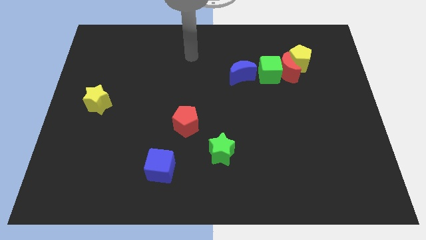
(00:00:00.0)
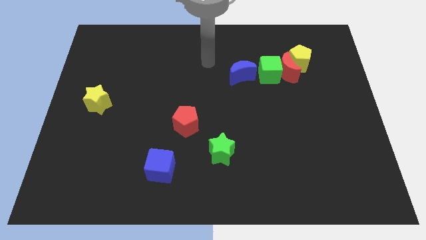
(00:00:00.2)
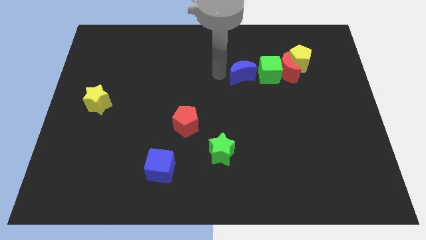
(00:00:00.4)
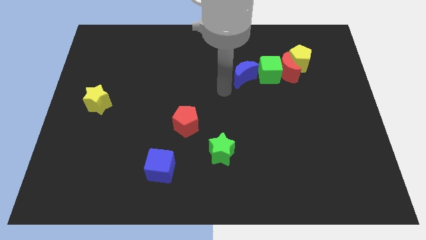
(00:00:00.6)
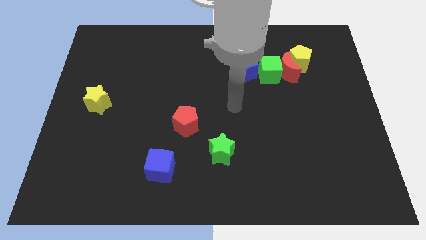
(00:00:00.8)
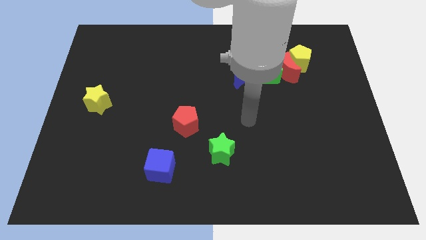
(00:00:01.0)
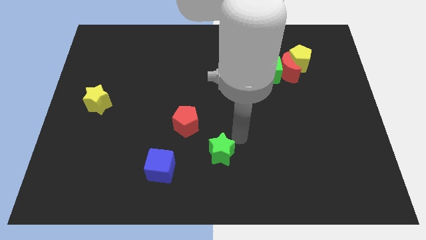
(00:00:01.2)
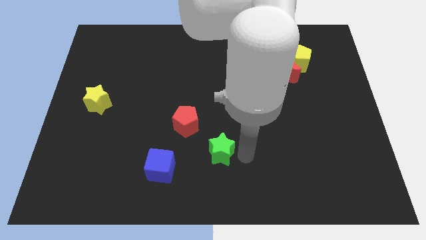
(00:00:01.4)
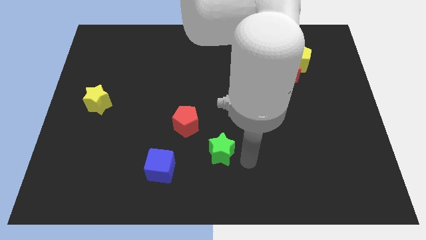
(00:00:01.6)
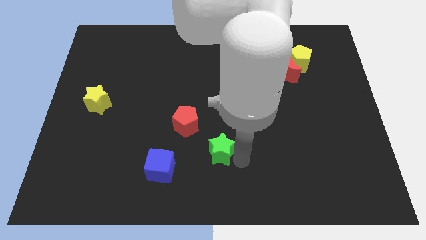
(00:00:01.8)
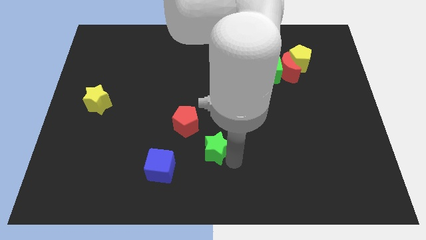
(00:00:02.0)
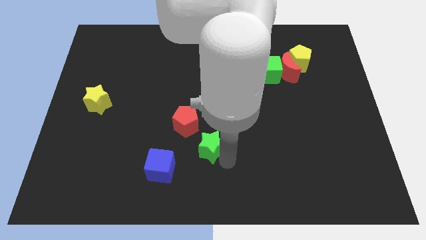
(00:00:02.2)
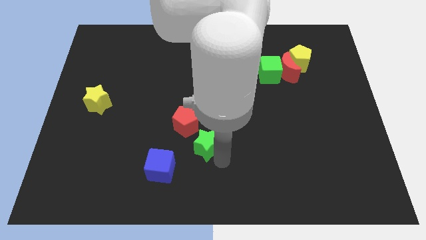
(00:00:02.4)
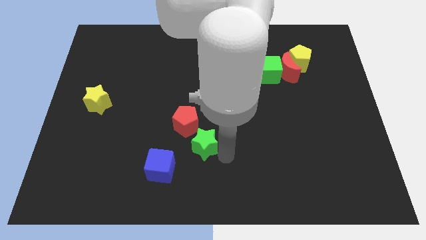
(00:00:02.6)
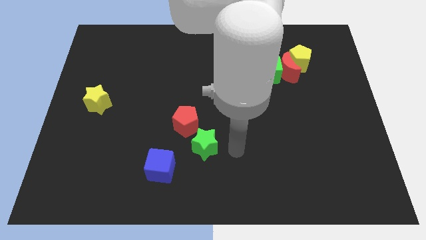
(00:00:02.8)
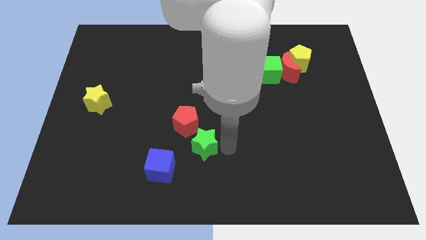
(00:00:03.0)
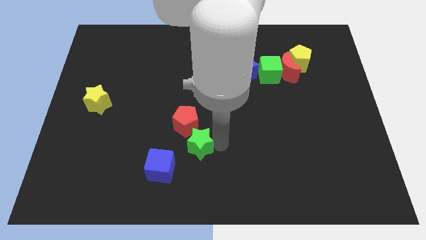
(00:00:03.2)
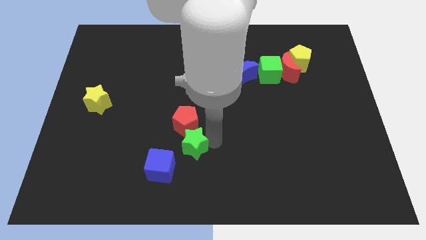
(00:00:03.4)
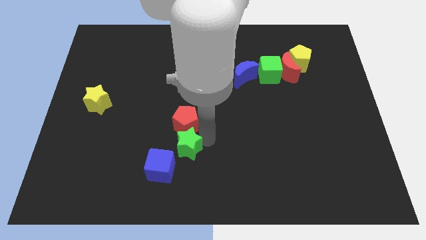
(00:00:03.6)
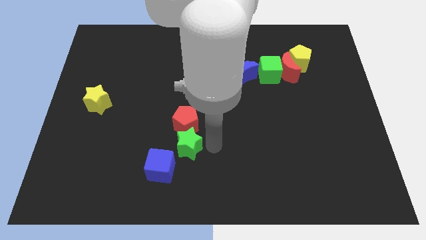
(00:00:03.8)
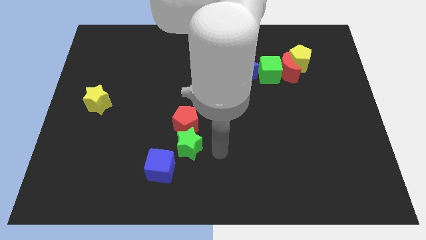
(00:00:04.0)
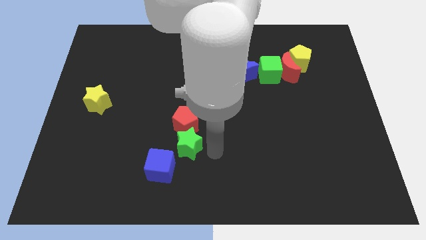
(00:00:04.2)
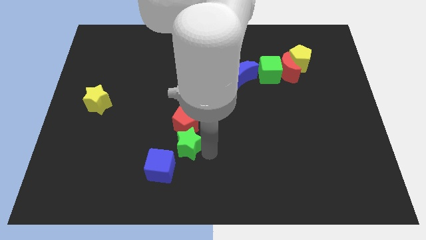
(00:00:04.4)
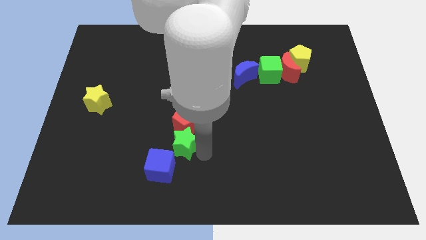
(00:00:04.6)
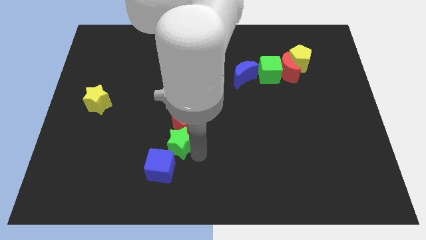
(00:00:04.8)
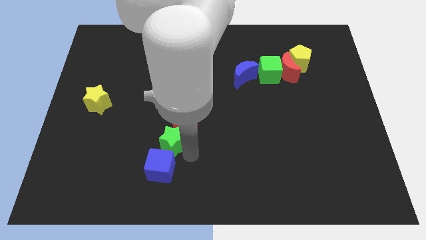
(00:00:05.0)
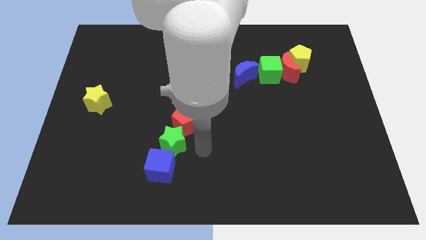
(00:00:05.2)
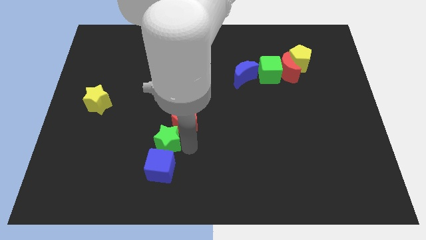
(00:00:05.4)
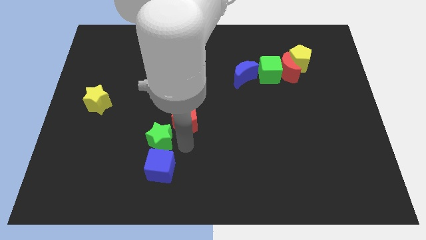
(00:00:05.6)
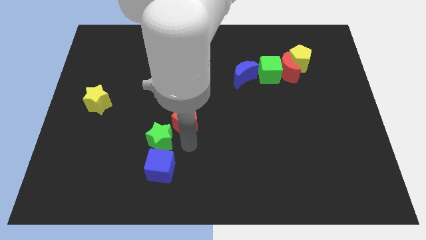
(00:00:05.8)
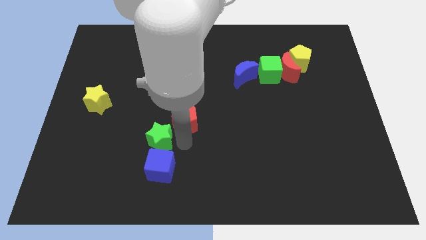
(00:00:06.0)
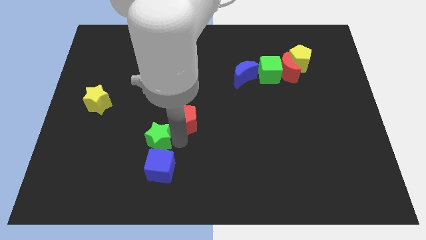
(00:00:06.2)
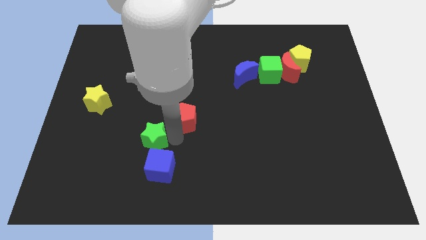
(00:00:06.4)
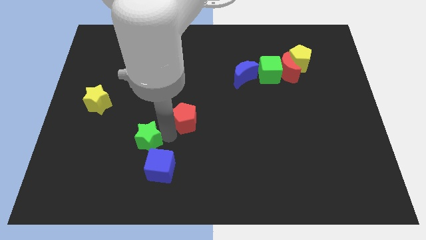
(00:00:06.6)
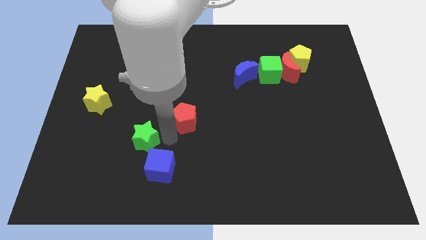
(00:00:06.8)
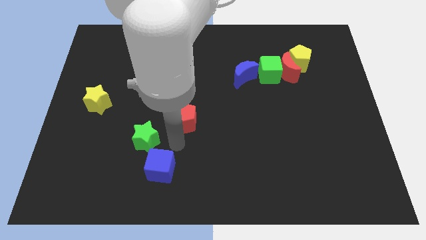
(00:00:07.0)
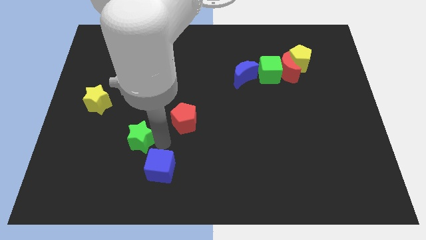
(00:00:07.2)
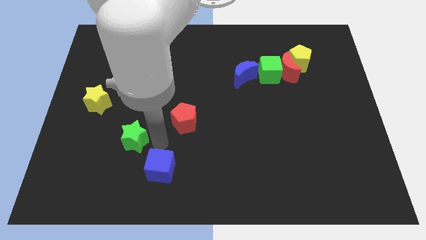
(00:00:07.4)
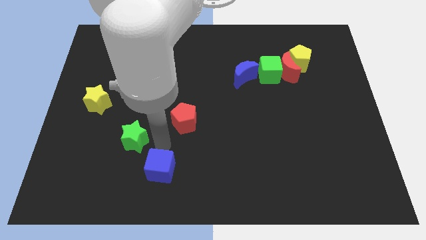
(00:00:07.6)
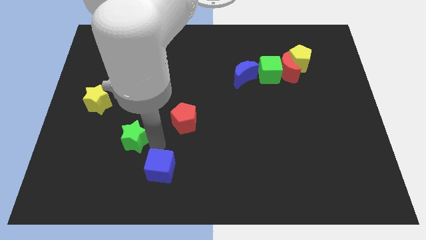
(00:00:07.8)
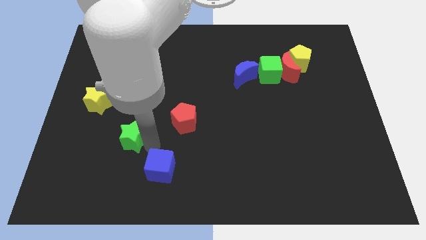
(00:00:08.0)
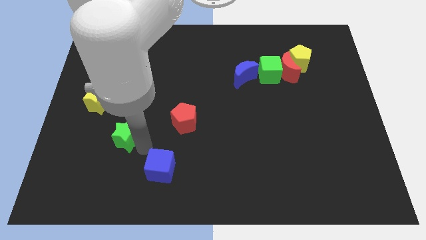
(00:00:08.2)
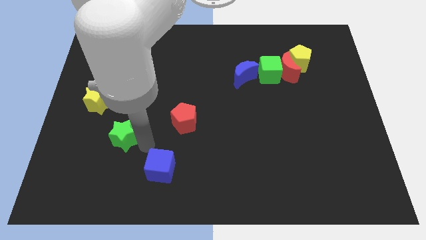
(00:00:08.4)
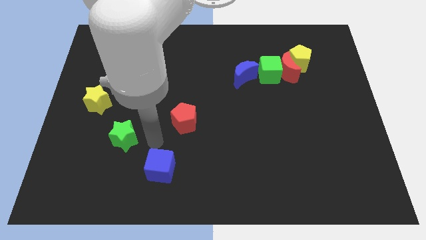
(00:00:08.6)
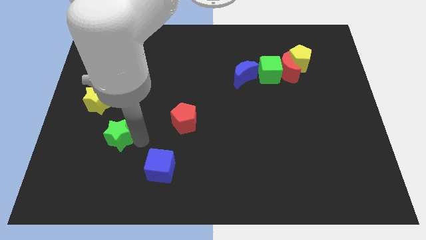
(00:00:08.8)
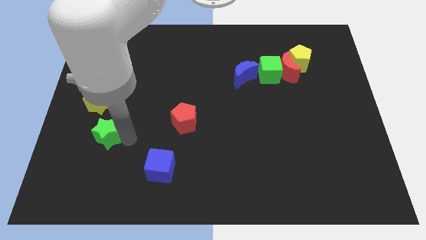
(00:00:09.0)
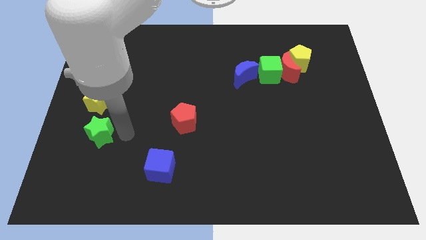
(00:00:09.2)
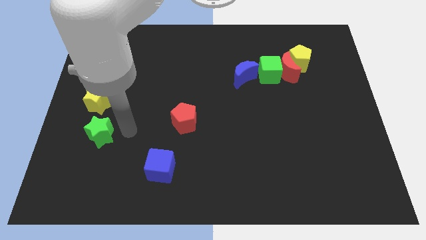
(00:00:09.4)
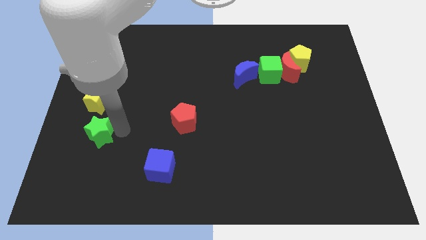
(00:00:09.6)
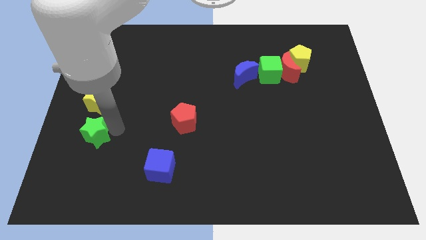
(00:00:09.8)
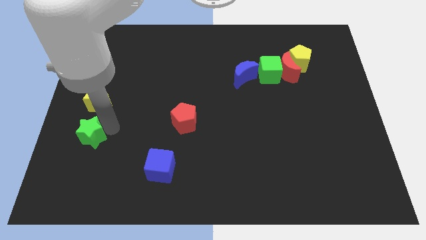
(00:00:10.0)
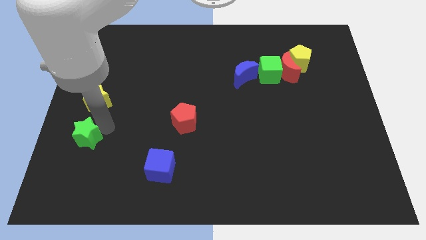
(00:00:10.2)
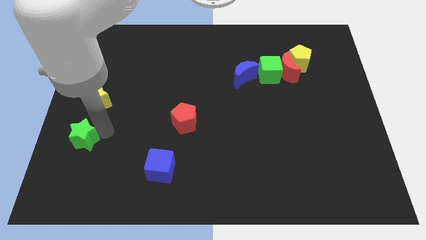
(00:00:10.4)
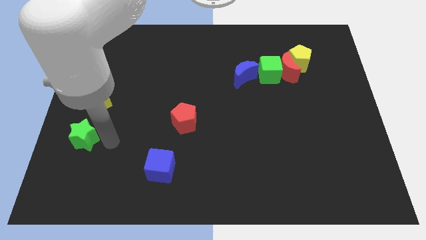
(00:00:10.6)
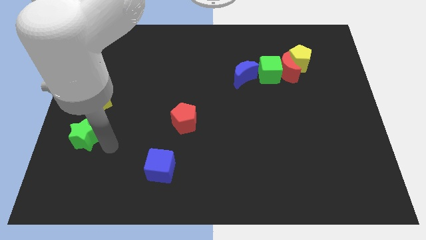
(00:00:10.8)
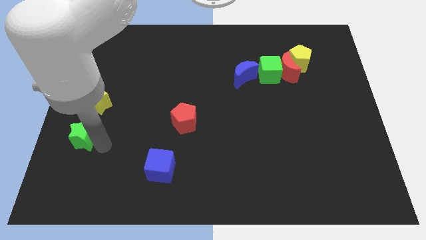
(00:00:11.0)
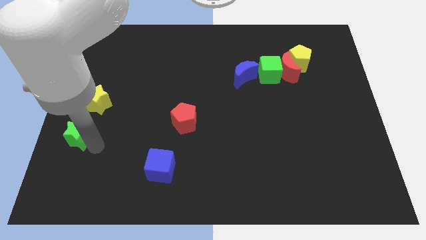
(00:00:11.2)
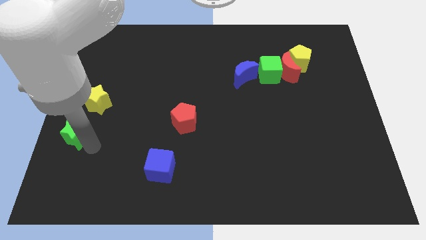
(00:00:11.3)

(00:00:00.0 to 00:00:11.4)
move the green star to the center left
